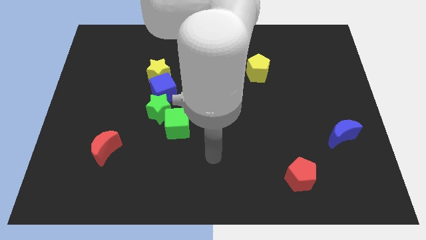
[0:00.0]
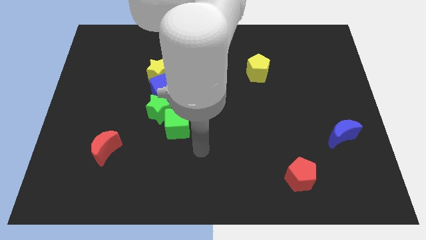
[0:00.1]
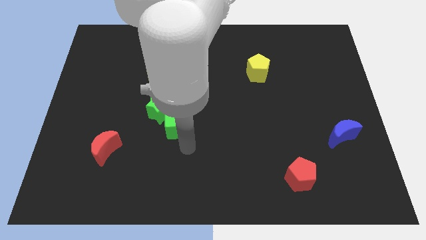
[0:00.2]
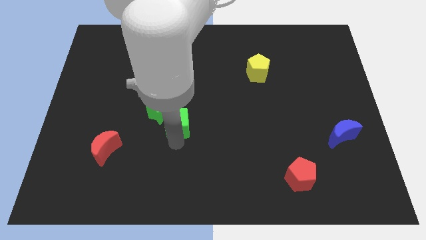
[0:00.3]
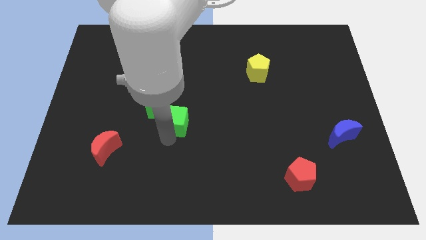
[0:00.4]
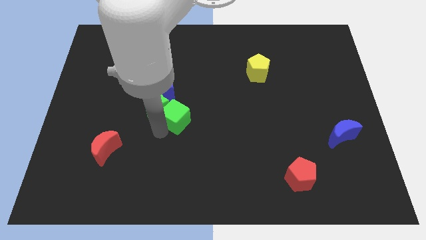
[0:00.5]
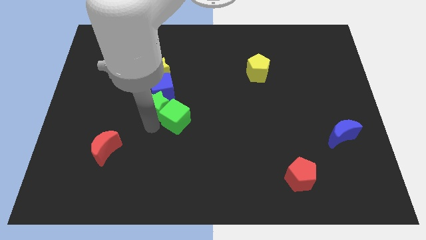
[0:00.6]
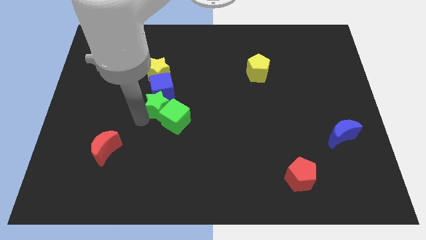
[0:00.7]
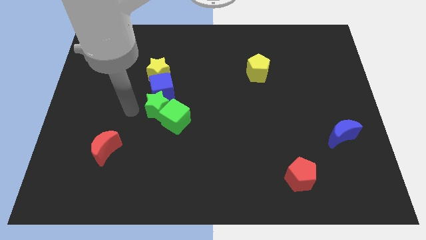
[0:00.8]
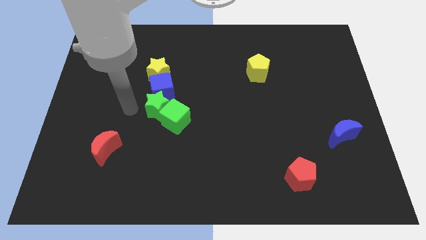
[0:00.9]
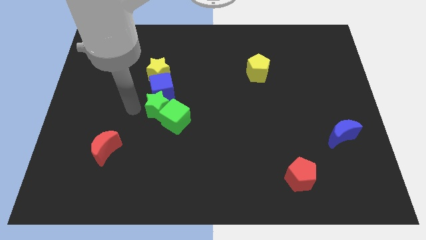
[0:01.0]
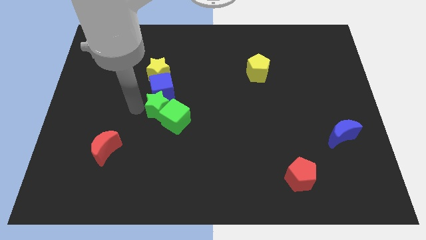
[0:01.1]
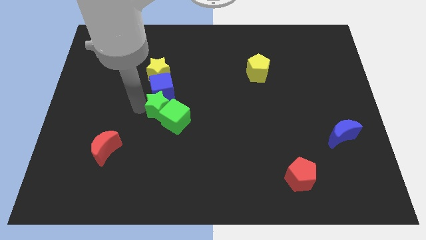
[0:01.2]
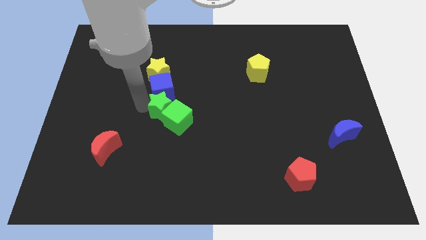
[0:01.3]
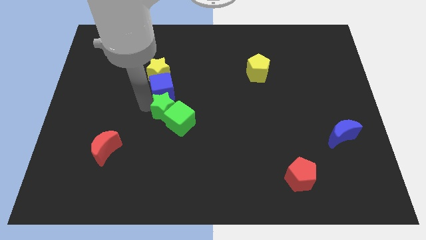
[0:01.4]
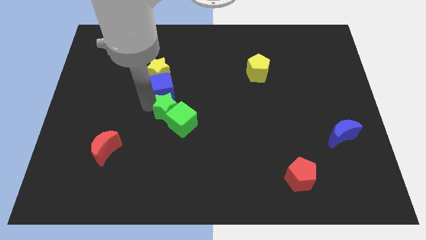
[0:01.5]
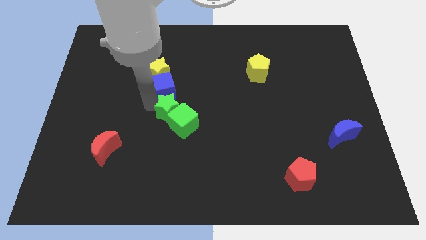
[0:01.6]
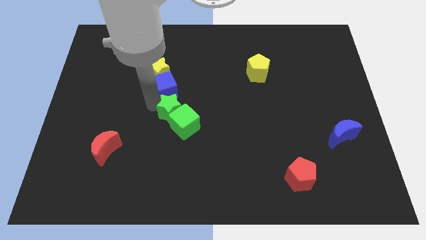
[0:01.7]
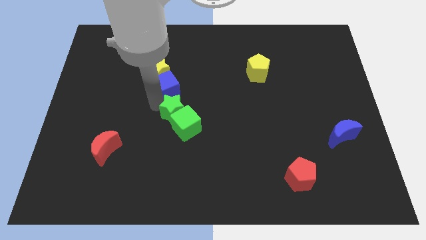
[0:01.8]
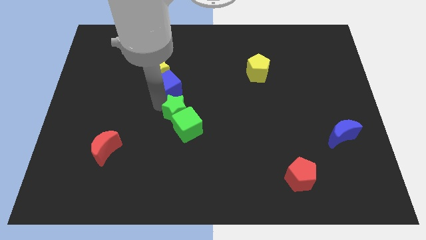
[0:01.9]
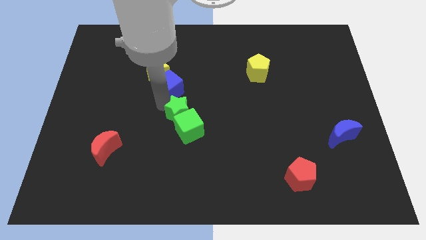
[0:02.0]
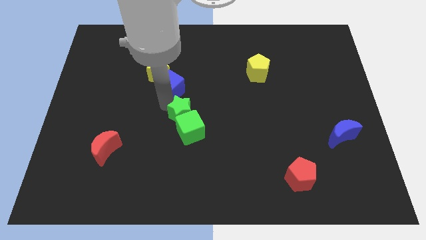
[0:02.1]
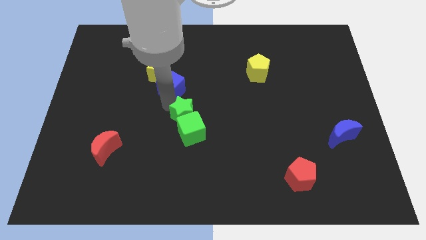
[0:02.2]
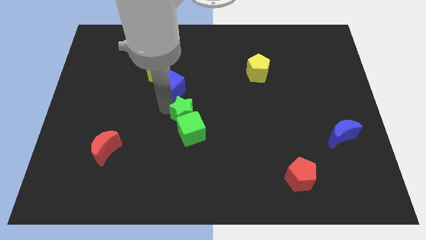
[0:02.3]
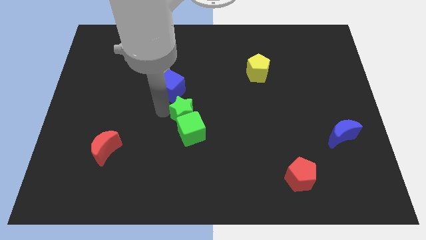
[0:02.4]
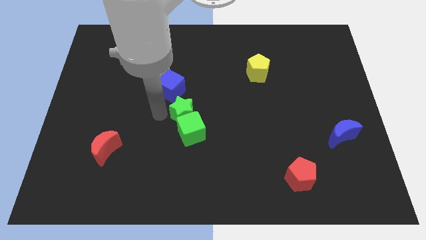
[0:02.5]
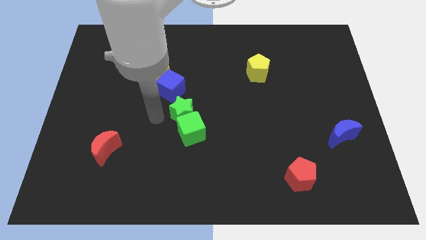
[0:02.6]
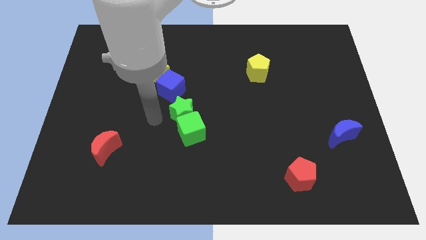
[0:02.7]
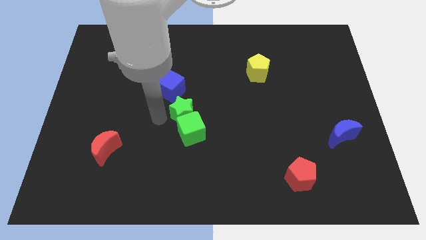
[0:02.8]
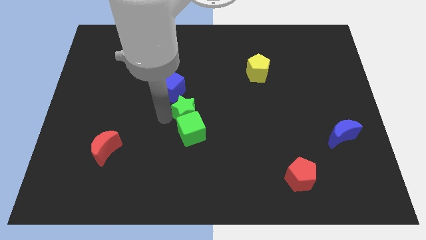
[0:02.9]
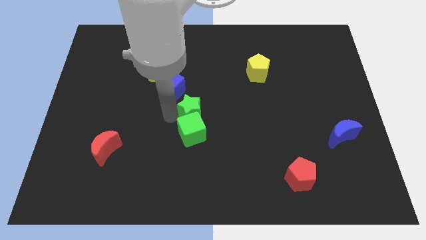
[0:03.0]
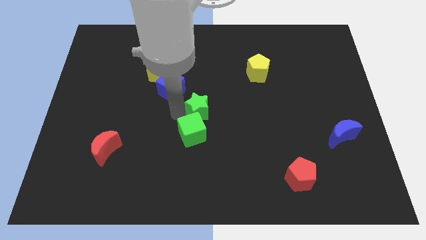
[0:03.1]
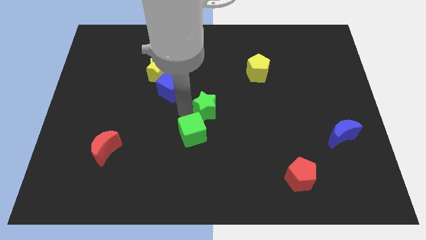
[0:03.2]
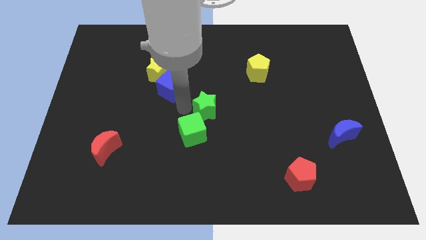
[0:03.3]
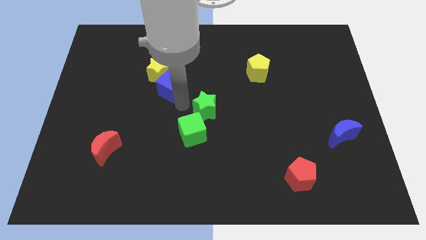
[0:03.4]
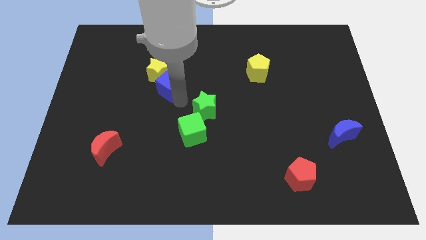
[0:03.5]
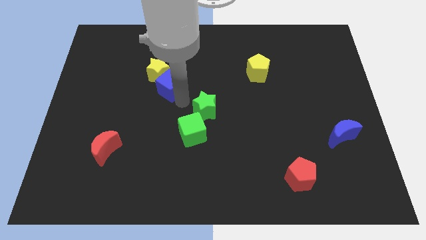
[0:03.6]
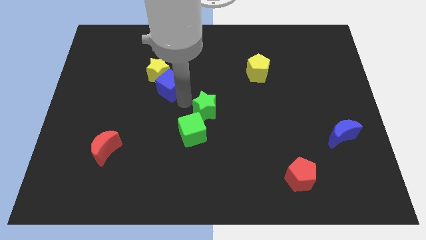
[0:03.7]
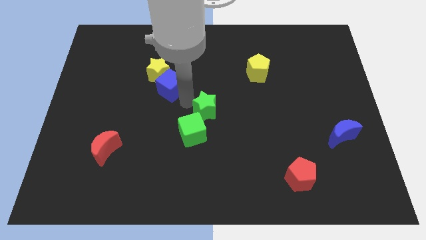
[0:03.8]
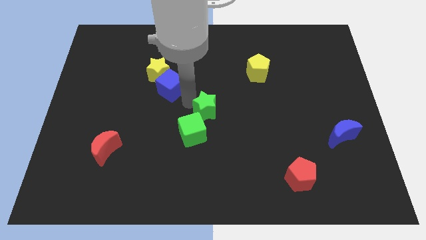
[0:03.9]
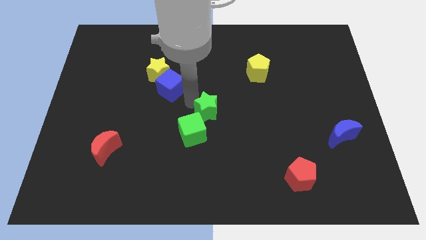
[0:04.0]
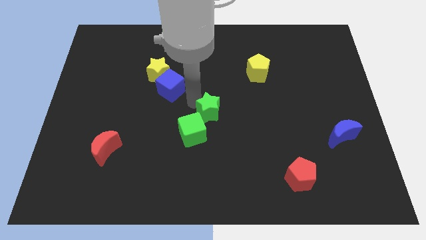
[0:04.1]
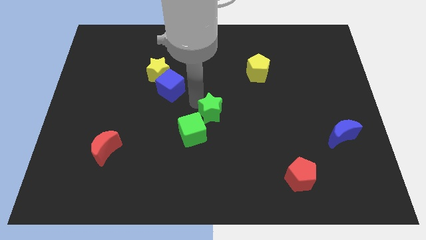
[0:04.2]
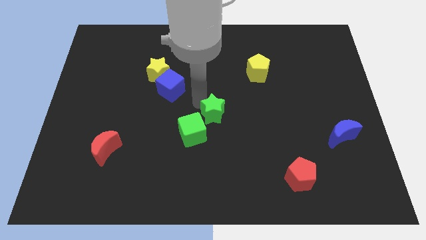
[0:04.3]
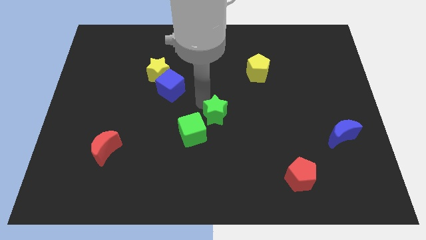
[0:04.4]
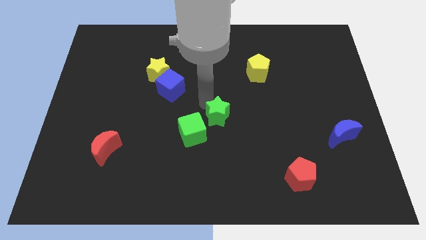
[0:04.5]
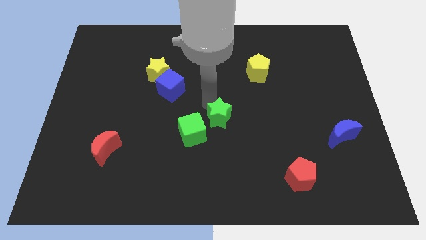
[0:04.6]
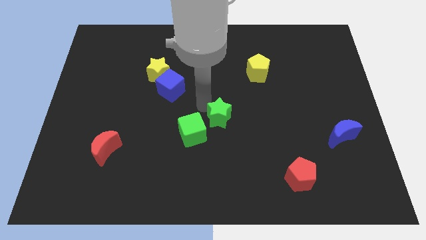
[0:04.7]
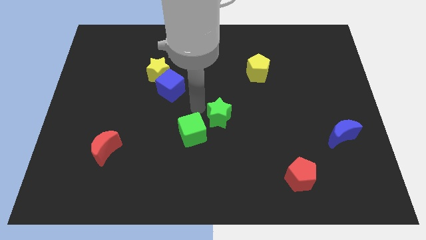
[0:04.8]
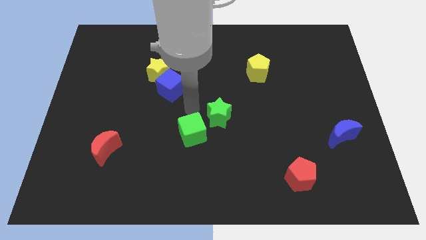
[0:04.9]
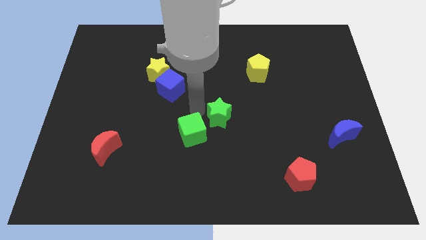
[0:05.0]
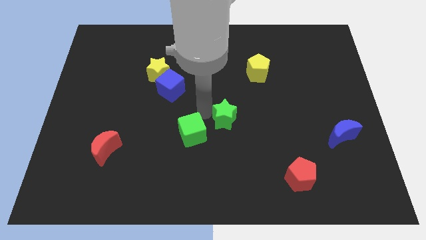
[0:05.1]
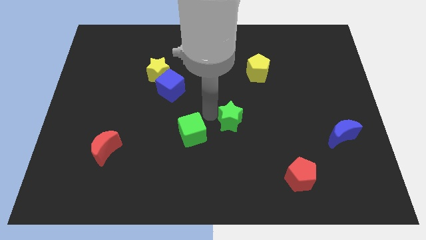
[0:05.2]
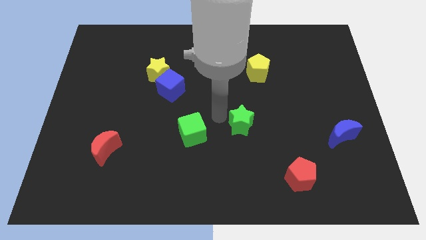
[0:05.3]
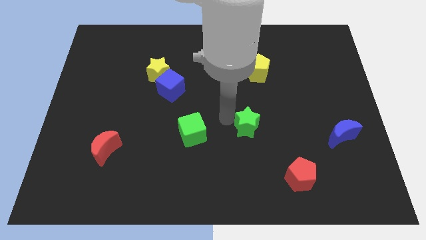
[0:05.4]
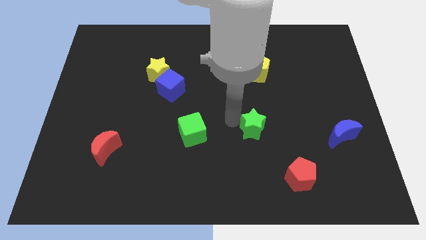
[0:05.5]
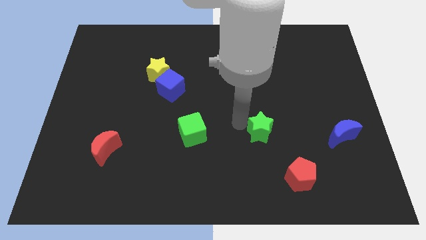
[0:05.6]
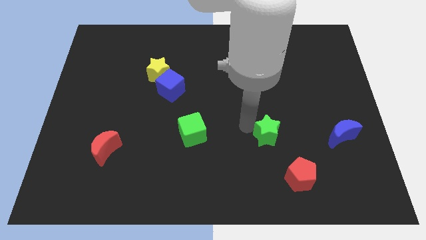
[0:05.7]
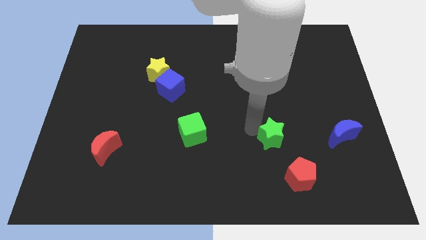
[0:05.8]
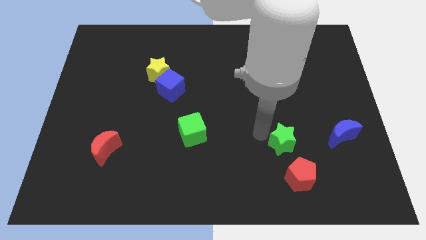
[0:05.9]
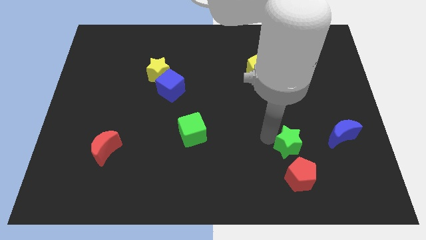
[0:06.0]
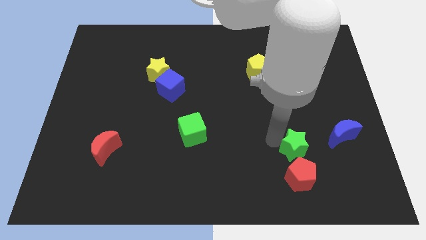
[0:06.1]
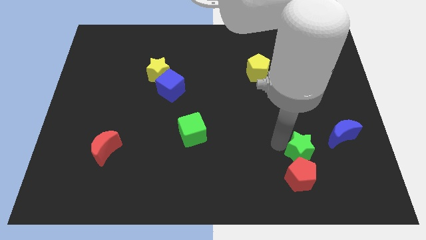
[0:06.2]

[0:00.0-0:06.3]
put the green star to the bottom left of the blue moon

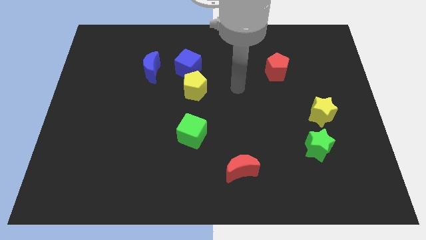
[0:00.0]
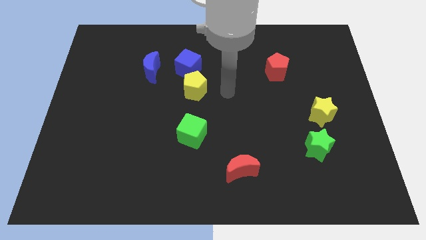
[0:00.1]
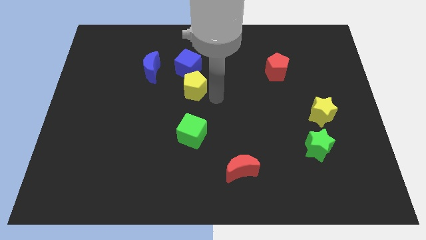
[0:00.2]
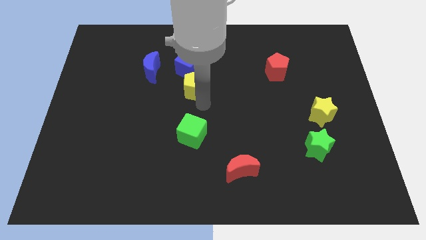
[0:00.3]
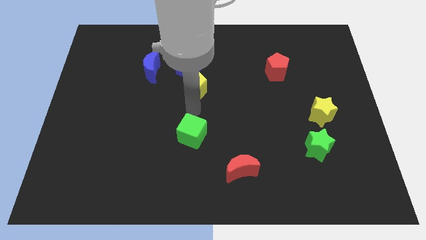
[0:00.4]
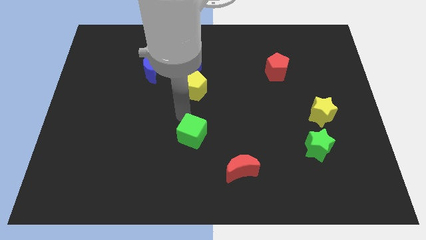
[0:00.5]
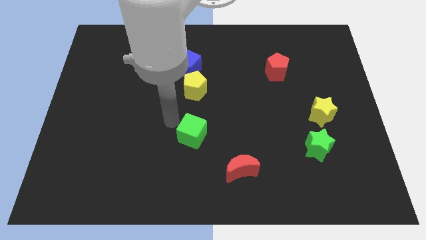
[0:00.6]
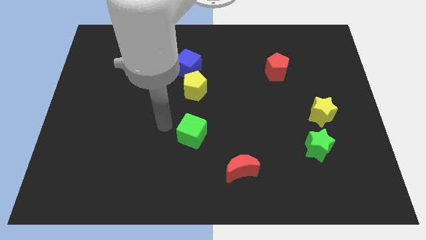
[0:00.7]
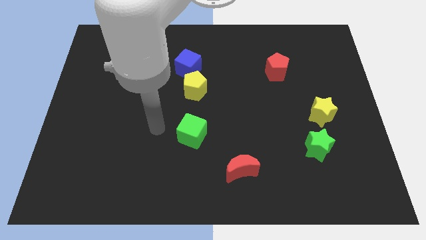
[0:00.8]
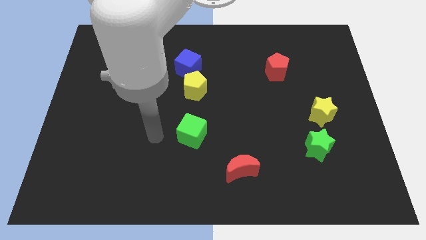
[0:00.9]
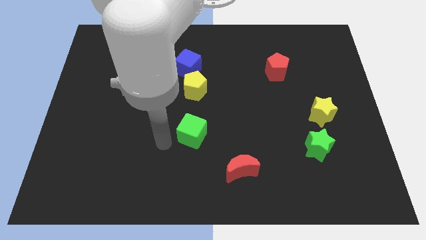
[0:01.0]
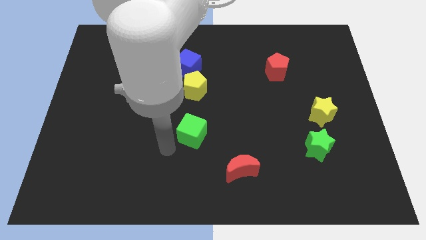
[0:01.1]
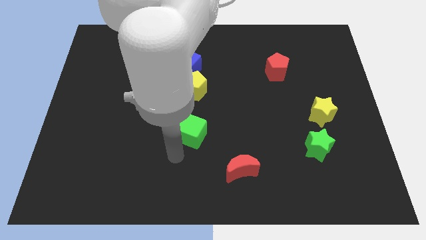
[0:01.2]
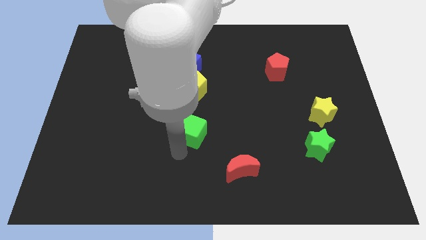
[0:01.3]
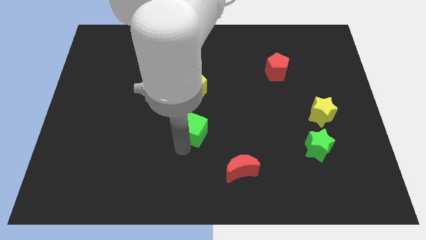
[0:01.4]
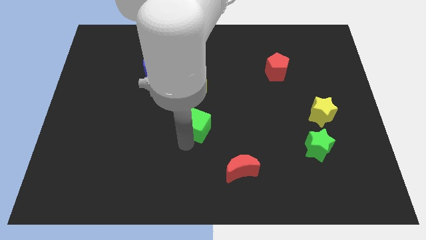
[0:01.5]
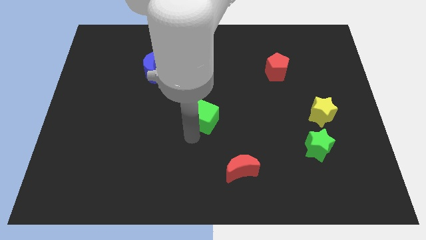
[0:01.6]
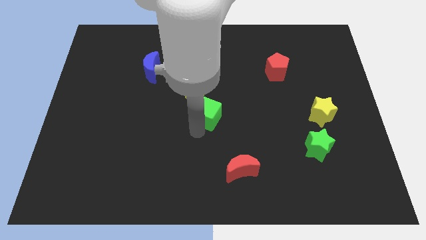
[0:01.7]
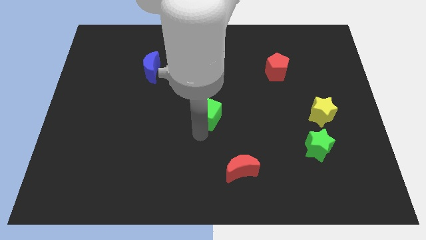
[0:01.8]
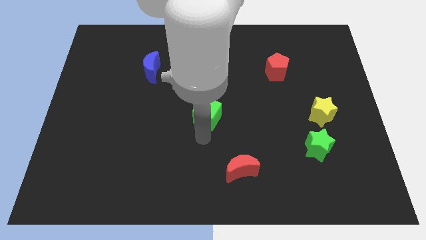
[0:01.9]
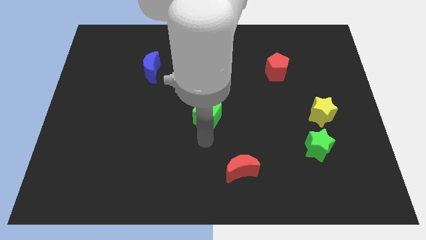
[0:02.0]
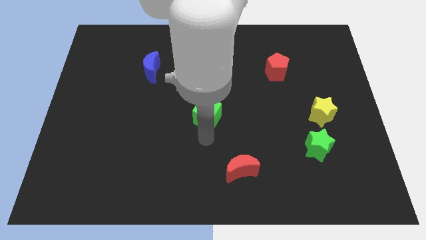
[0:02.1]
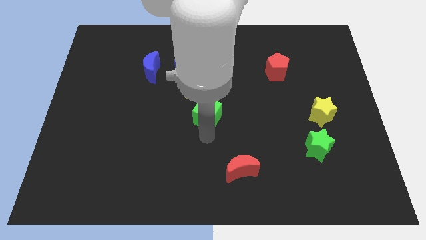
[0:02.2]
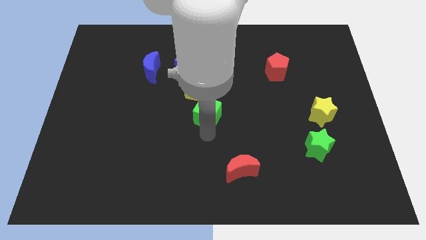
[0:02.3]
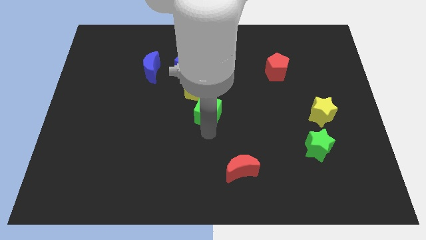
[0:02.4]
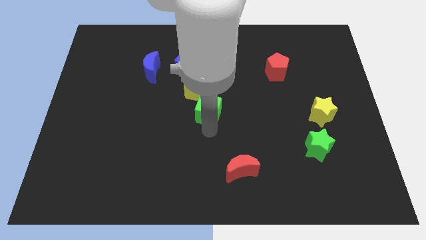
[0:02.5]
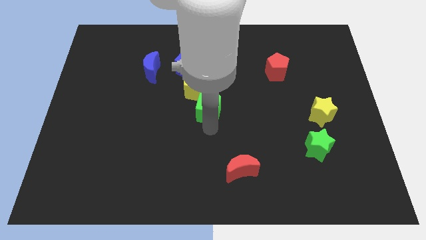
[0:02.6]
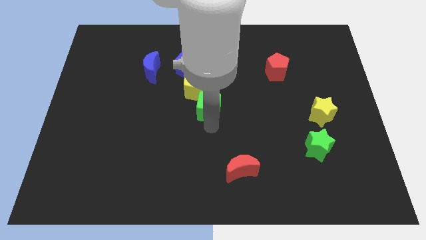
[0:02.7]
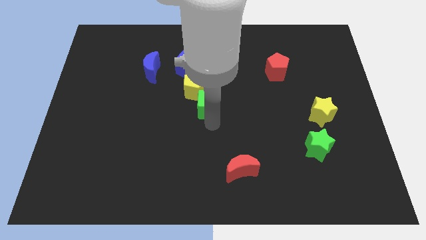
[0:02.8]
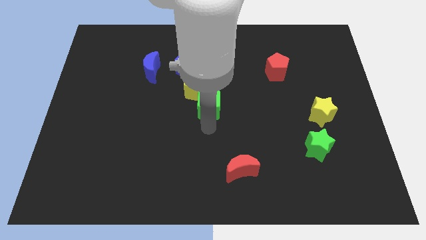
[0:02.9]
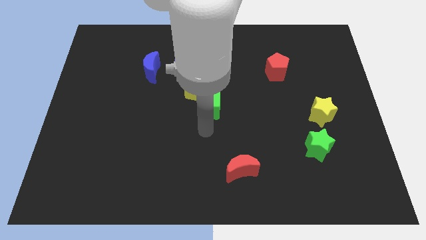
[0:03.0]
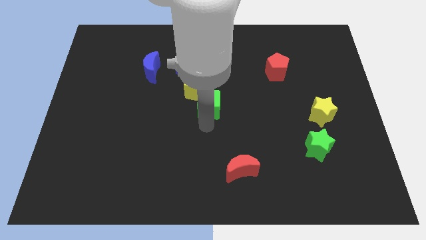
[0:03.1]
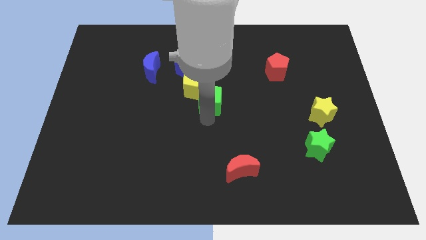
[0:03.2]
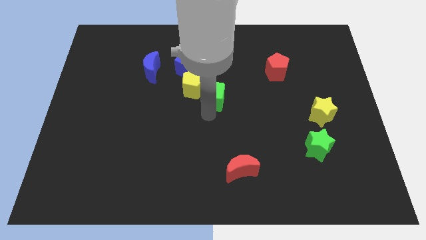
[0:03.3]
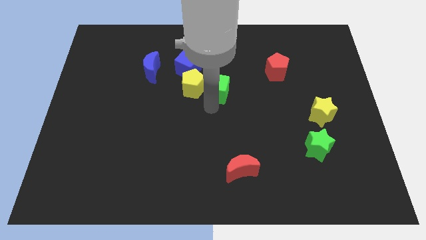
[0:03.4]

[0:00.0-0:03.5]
push the green cube diagonally up and to the right of the yellow pentagon
